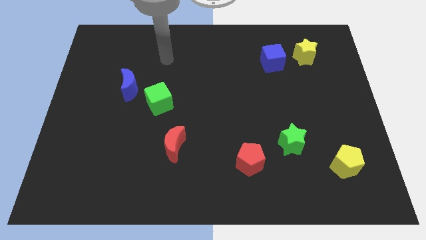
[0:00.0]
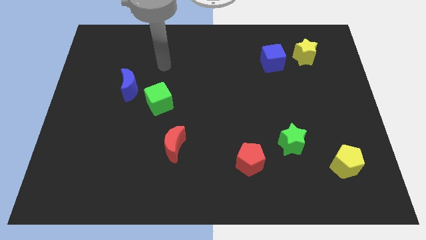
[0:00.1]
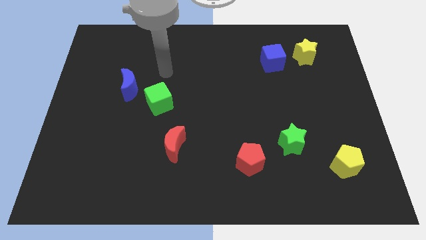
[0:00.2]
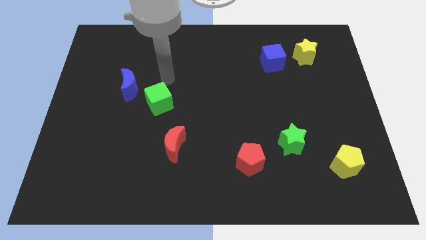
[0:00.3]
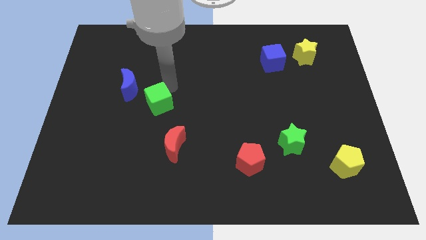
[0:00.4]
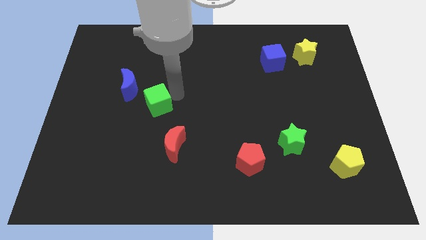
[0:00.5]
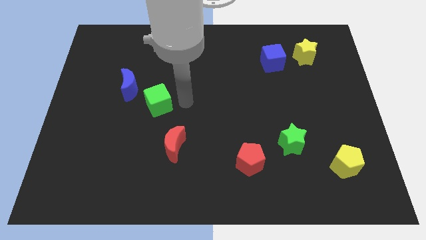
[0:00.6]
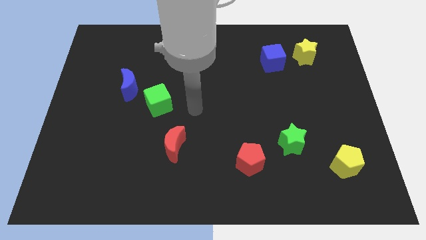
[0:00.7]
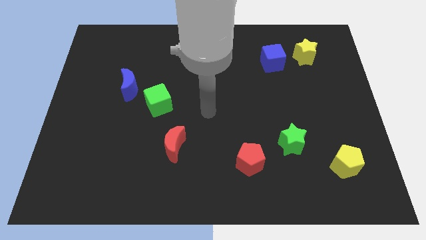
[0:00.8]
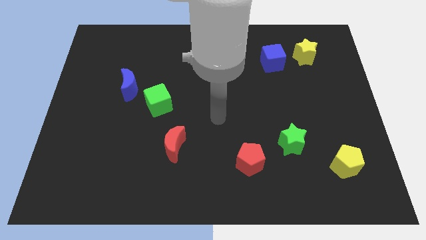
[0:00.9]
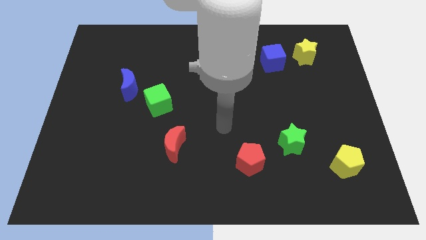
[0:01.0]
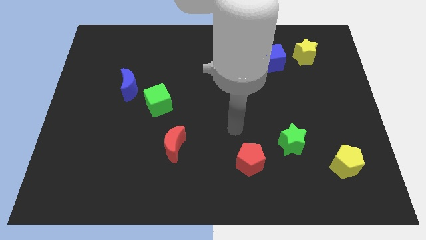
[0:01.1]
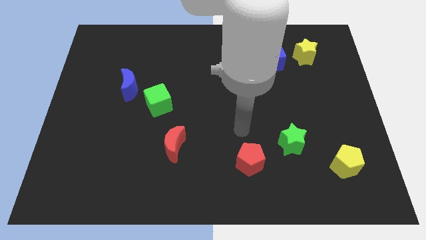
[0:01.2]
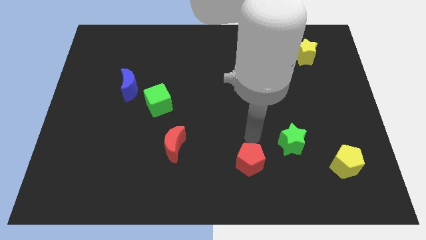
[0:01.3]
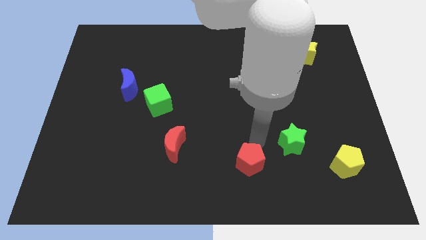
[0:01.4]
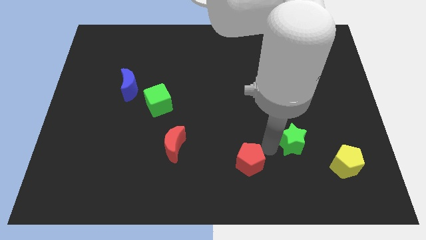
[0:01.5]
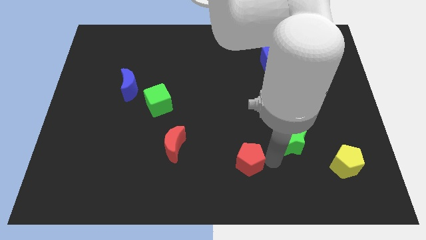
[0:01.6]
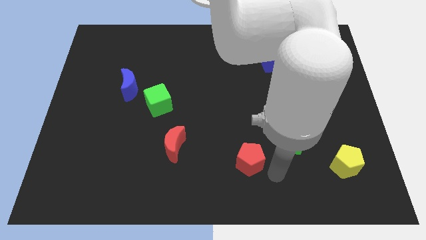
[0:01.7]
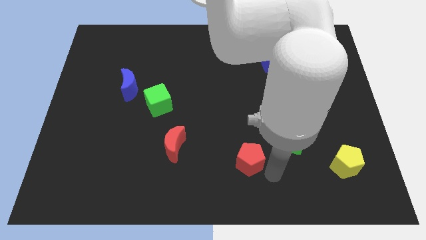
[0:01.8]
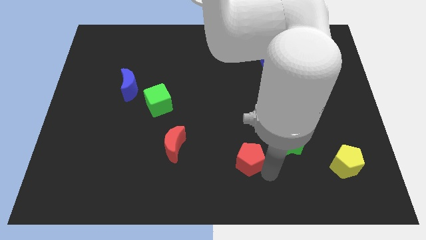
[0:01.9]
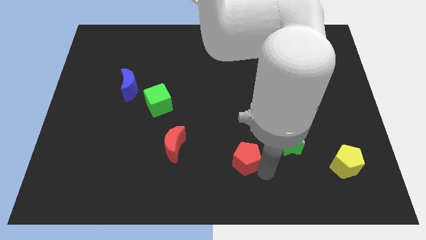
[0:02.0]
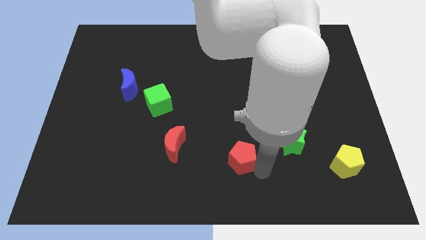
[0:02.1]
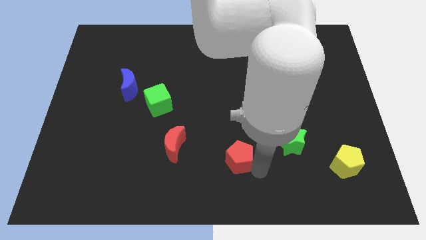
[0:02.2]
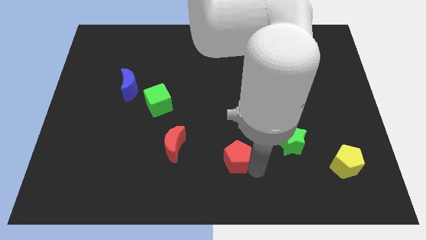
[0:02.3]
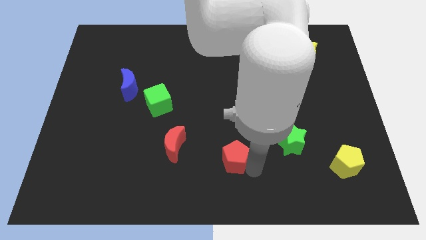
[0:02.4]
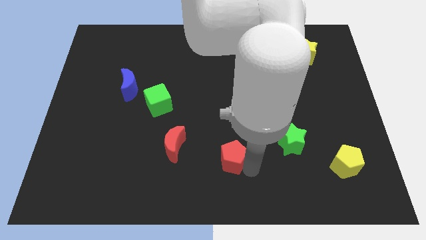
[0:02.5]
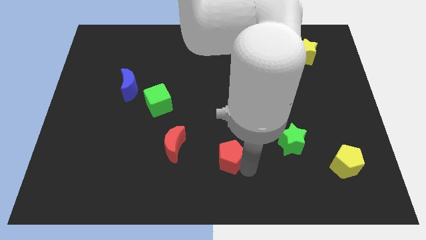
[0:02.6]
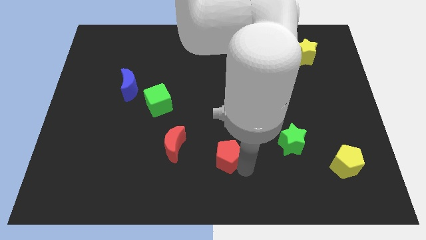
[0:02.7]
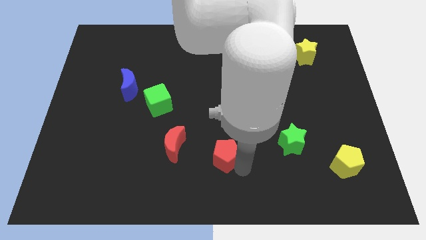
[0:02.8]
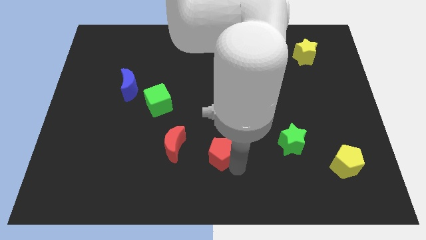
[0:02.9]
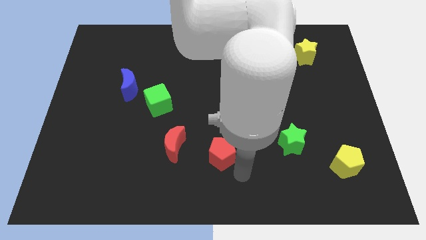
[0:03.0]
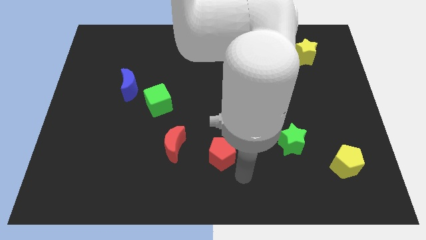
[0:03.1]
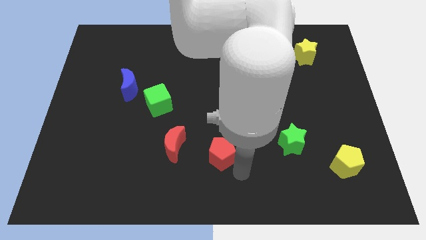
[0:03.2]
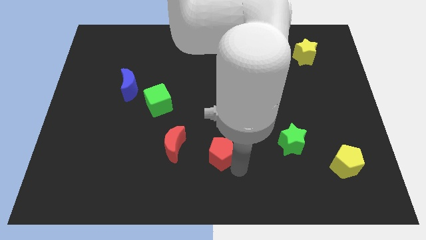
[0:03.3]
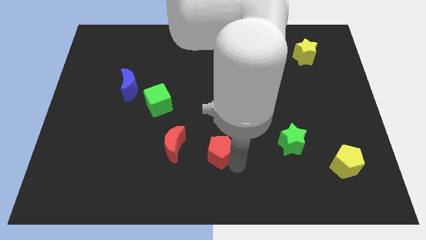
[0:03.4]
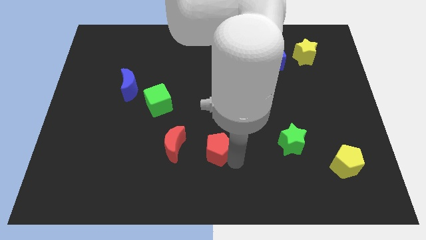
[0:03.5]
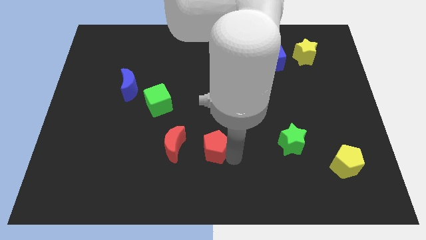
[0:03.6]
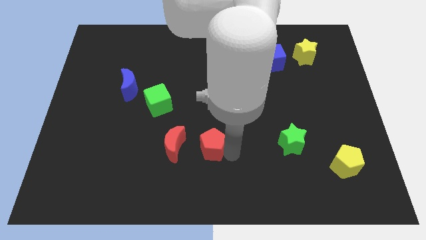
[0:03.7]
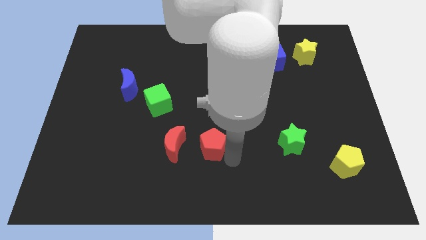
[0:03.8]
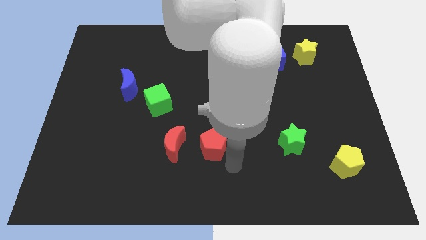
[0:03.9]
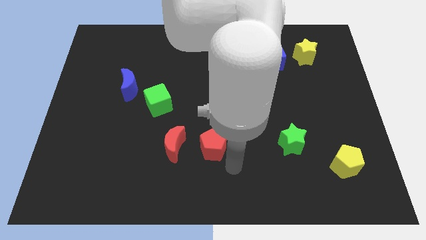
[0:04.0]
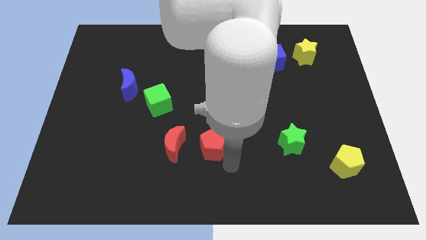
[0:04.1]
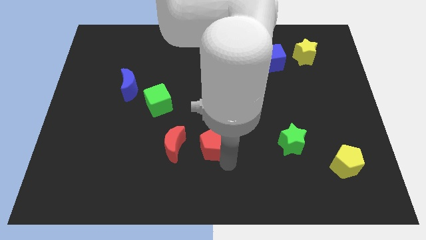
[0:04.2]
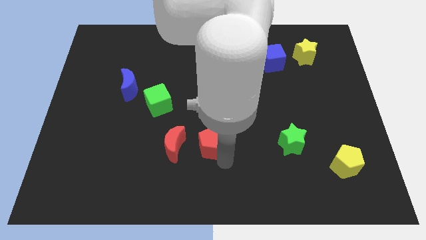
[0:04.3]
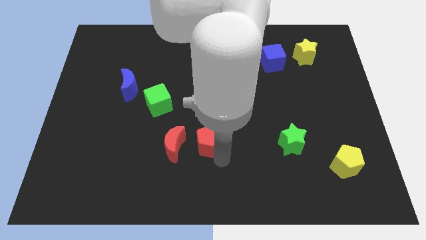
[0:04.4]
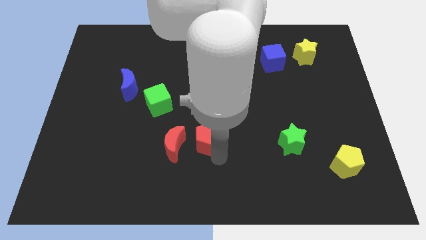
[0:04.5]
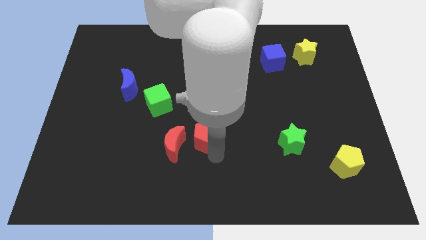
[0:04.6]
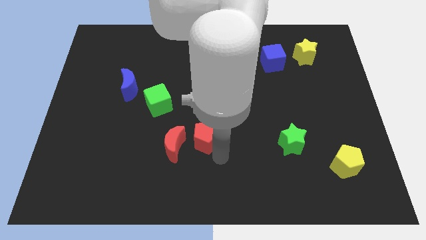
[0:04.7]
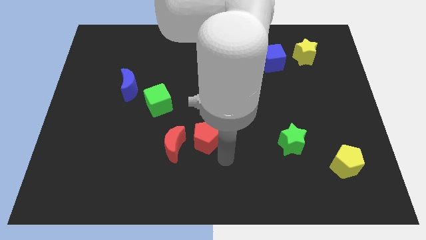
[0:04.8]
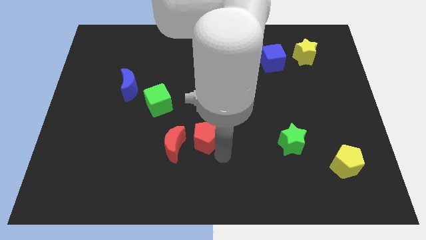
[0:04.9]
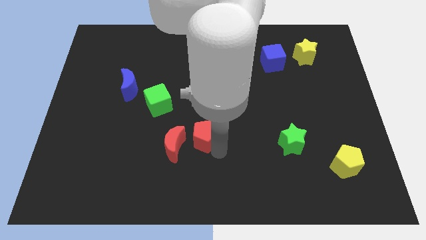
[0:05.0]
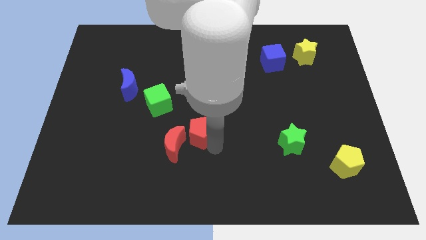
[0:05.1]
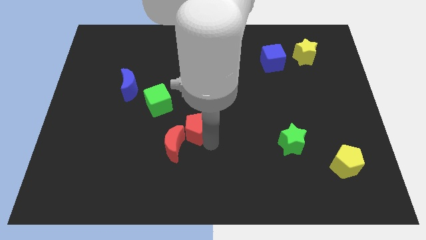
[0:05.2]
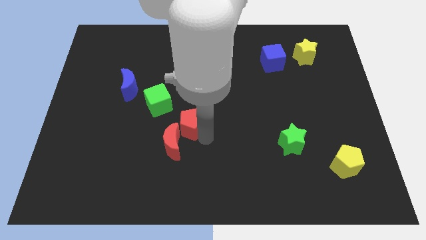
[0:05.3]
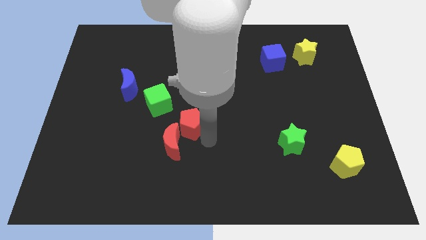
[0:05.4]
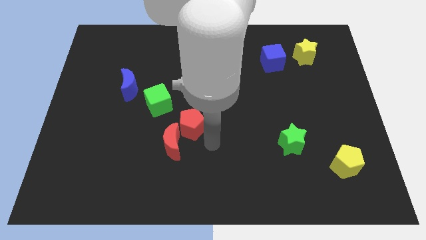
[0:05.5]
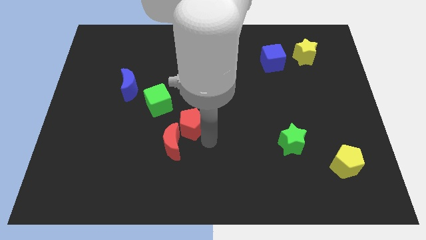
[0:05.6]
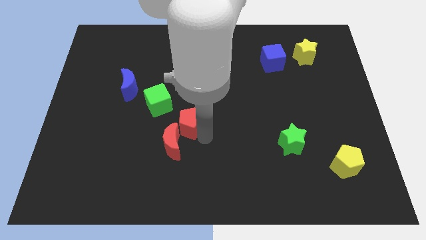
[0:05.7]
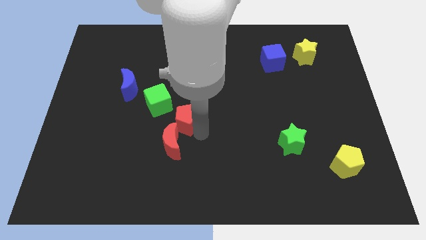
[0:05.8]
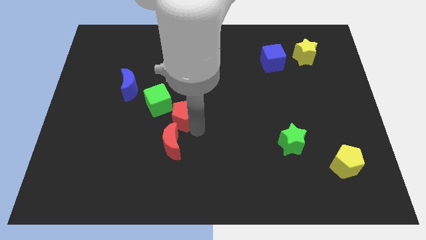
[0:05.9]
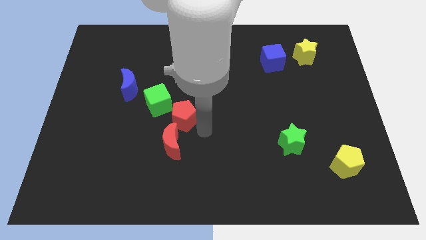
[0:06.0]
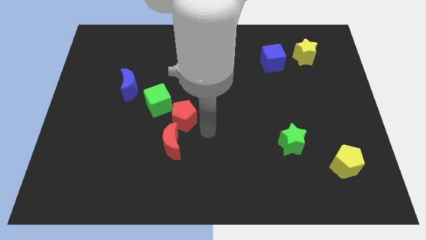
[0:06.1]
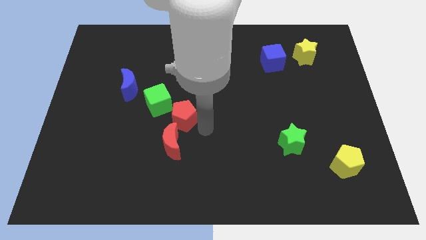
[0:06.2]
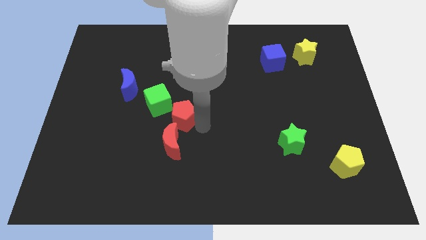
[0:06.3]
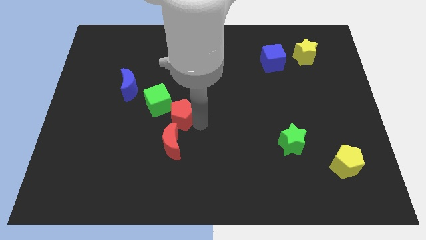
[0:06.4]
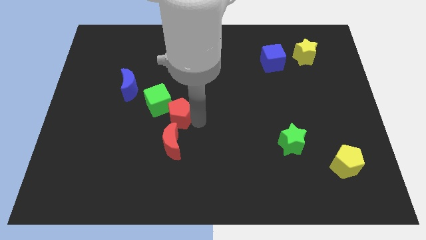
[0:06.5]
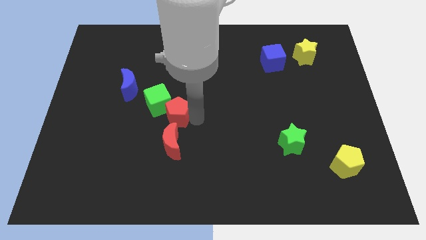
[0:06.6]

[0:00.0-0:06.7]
push the red pentagon towards the green cube

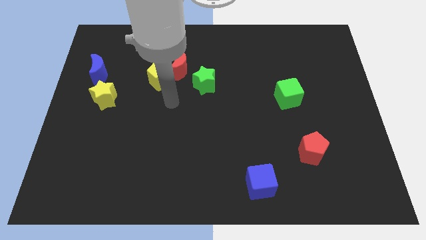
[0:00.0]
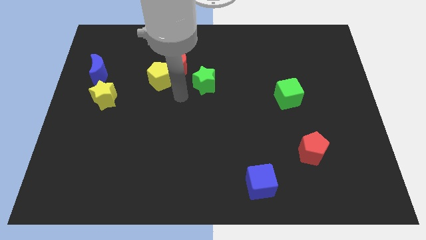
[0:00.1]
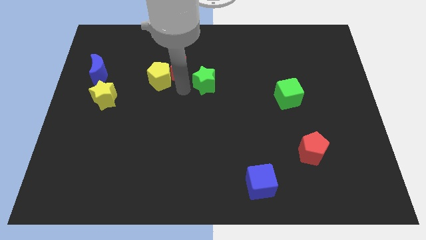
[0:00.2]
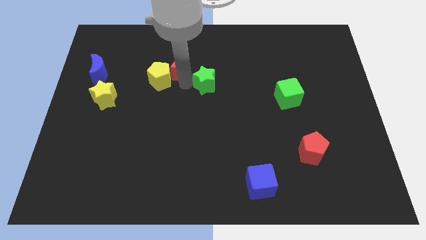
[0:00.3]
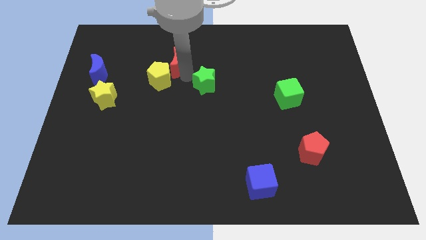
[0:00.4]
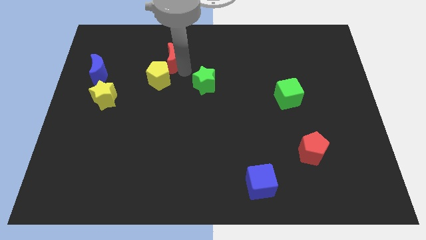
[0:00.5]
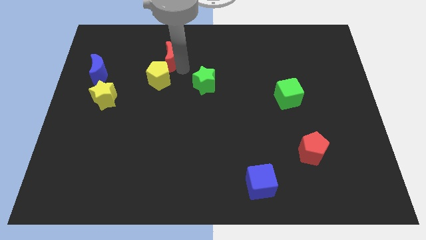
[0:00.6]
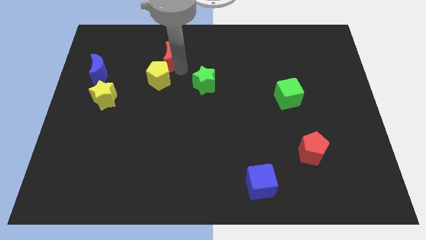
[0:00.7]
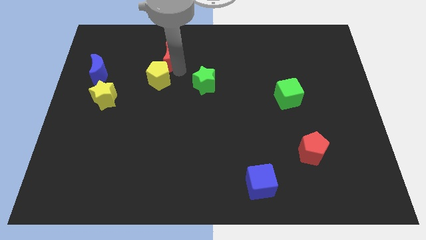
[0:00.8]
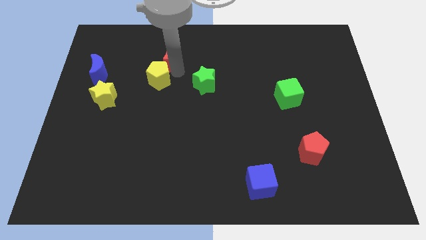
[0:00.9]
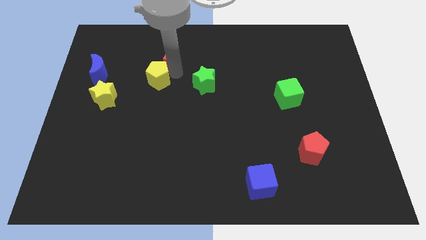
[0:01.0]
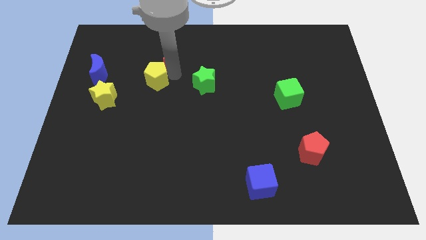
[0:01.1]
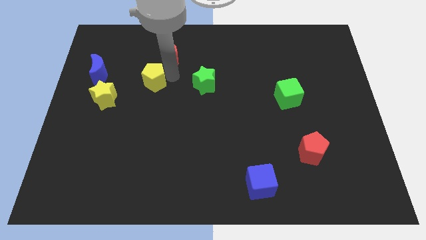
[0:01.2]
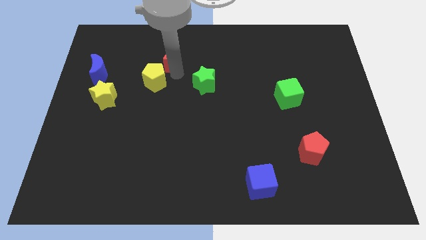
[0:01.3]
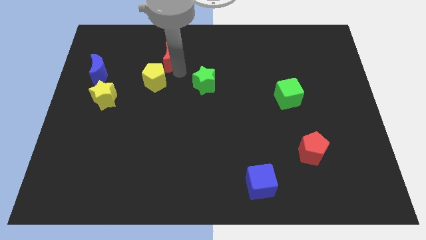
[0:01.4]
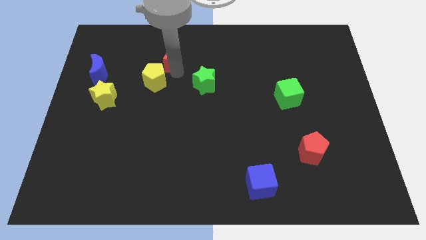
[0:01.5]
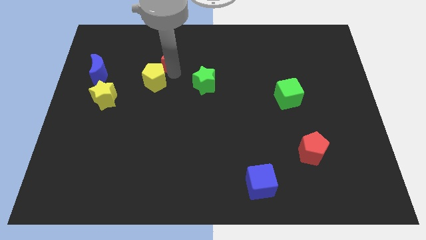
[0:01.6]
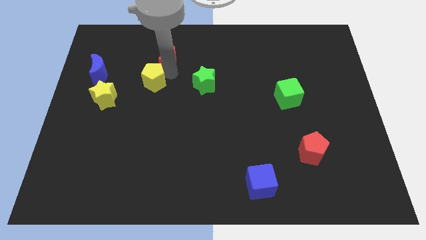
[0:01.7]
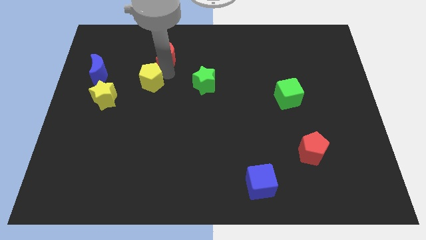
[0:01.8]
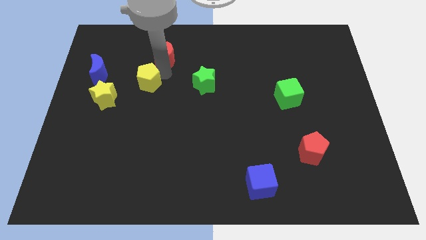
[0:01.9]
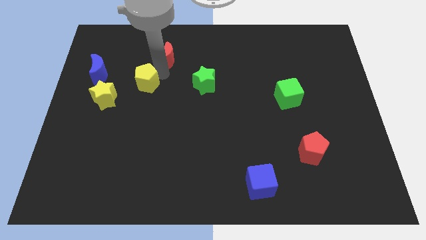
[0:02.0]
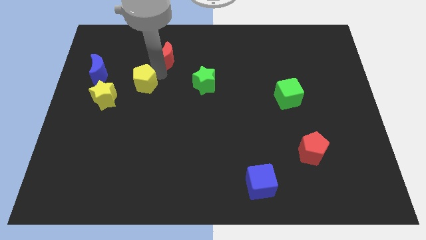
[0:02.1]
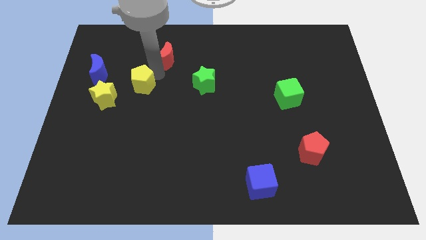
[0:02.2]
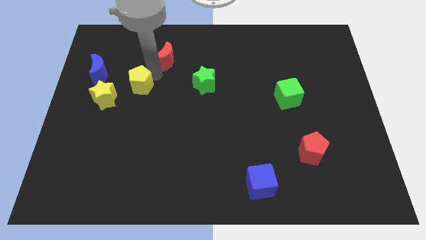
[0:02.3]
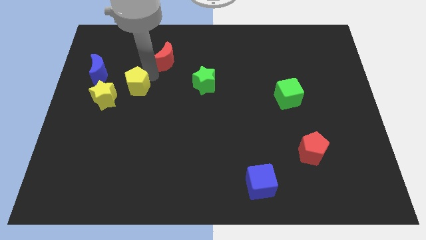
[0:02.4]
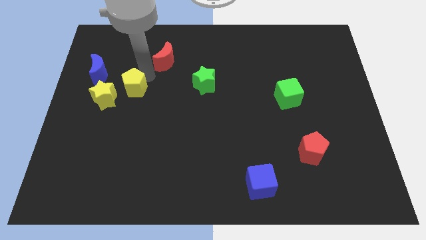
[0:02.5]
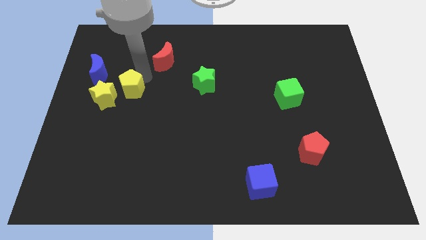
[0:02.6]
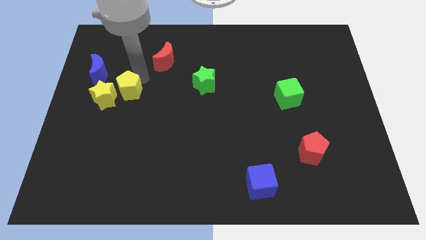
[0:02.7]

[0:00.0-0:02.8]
push the yellow pentagon to the yellow star
